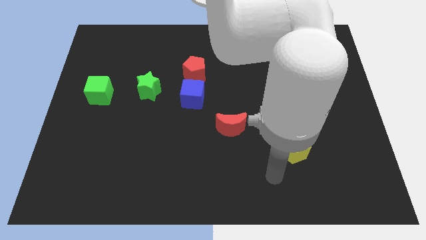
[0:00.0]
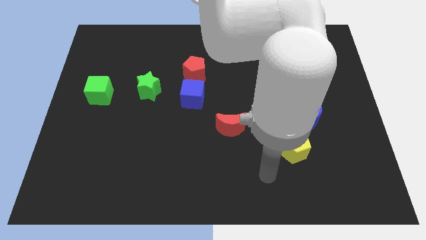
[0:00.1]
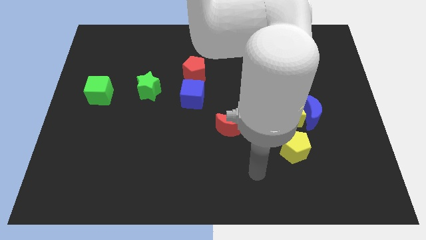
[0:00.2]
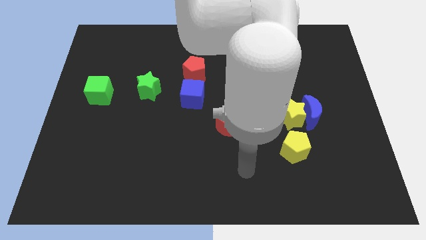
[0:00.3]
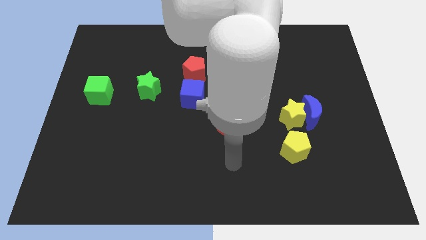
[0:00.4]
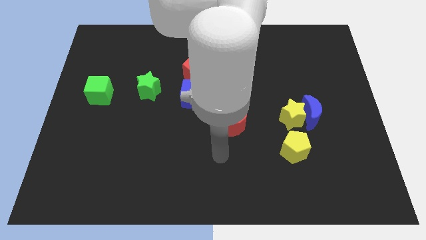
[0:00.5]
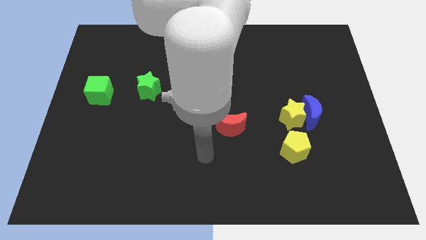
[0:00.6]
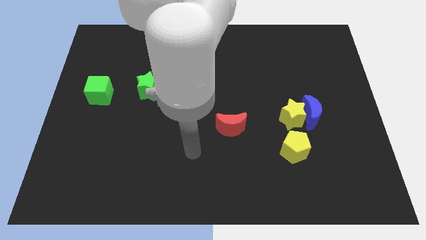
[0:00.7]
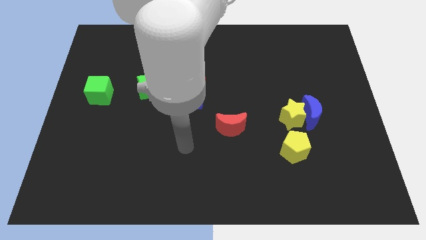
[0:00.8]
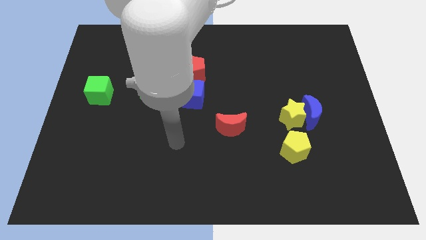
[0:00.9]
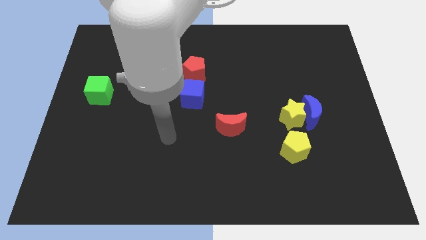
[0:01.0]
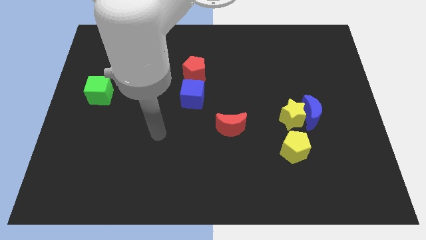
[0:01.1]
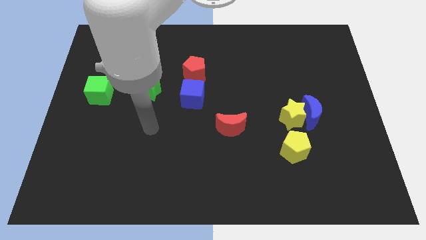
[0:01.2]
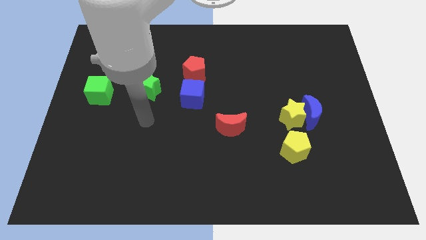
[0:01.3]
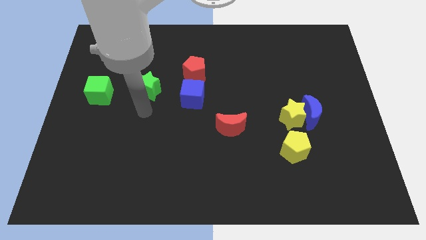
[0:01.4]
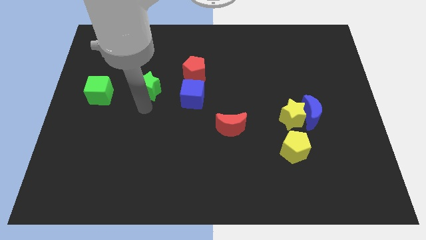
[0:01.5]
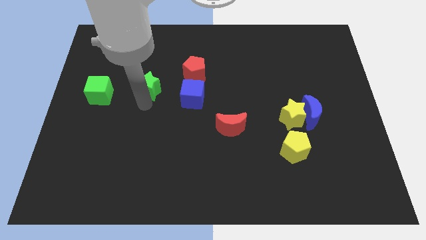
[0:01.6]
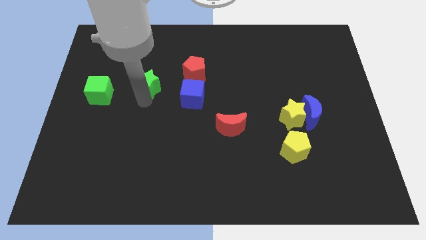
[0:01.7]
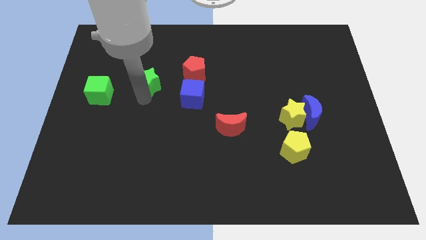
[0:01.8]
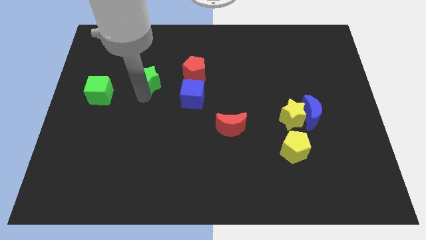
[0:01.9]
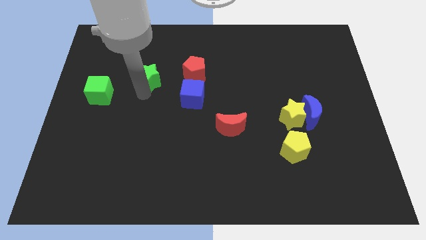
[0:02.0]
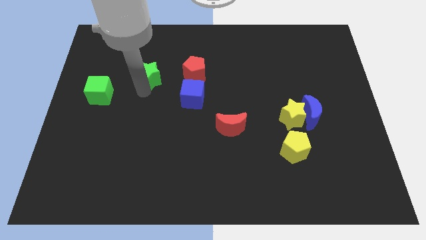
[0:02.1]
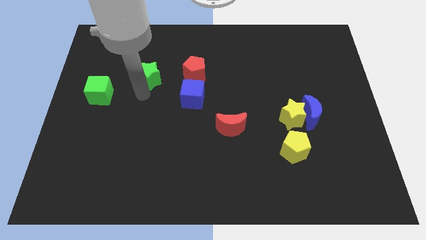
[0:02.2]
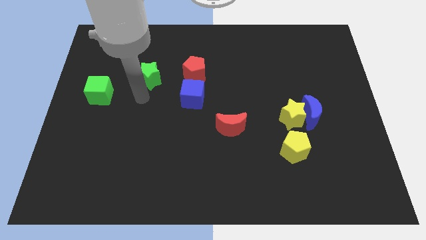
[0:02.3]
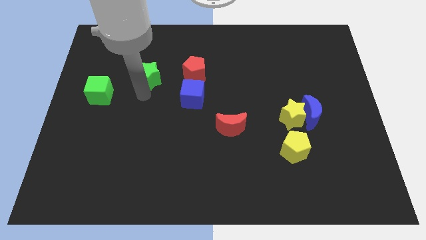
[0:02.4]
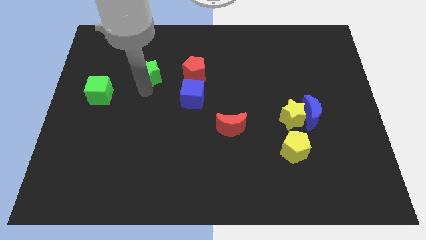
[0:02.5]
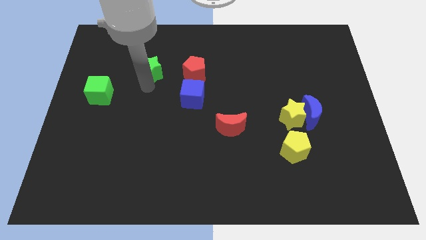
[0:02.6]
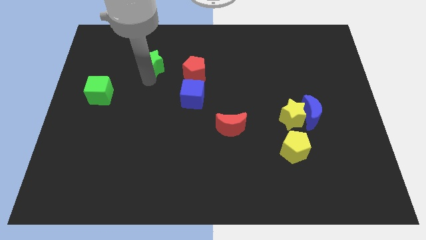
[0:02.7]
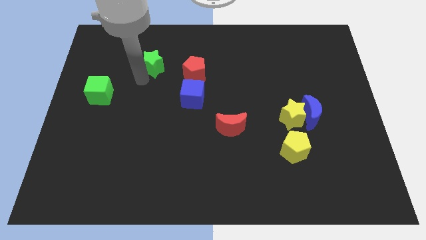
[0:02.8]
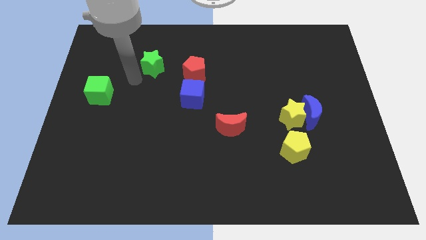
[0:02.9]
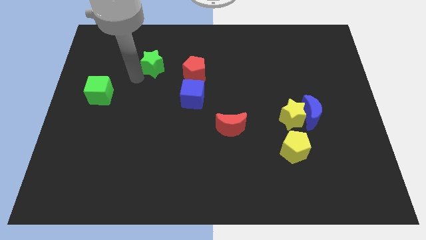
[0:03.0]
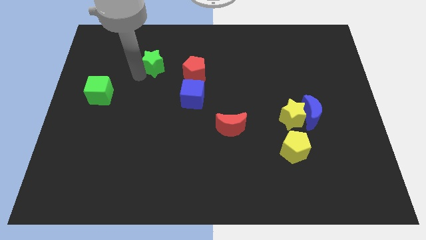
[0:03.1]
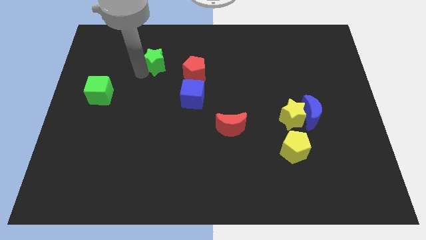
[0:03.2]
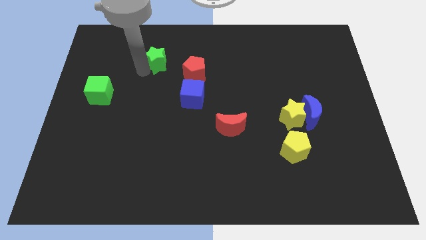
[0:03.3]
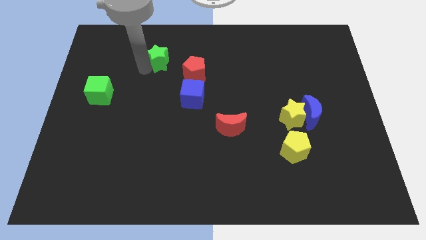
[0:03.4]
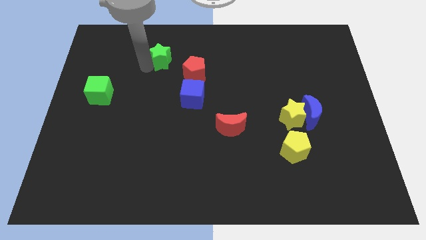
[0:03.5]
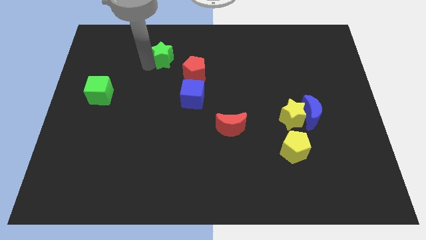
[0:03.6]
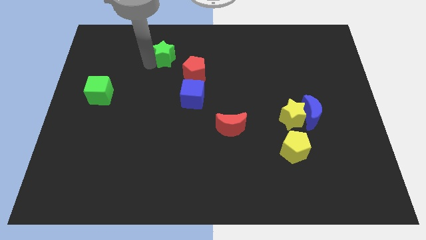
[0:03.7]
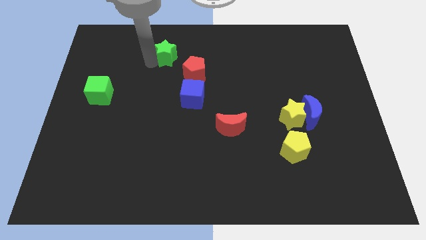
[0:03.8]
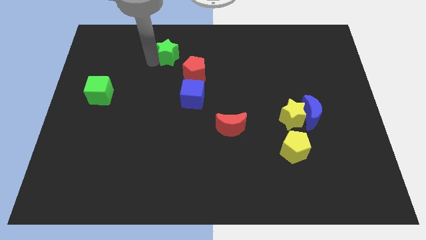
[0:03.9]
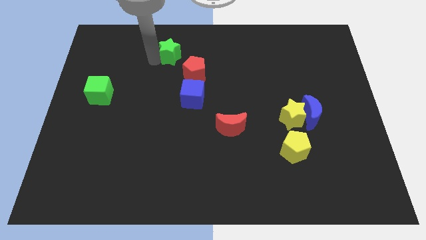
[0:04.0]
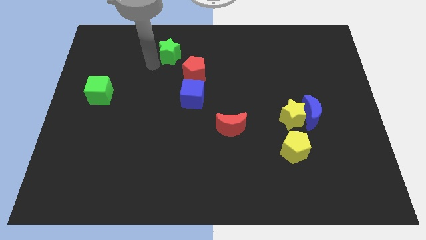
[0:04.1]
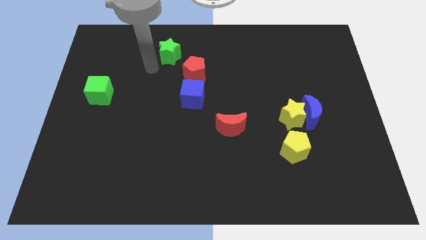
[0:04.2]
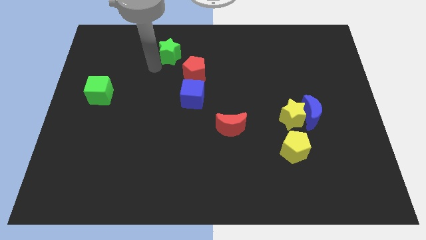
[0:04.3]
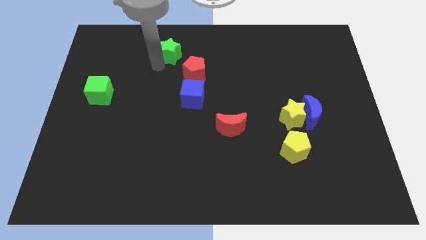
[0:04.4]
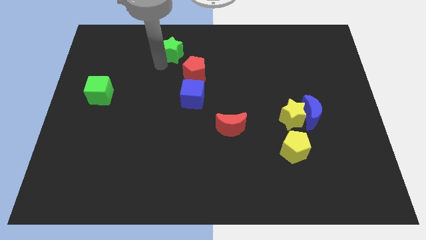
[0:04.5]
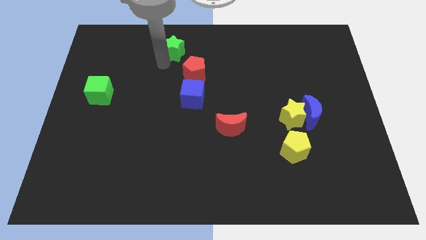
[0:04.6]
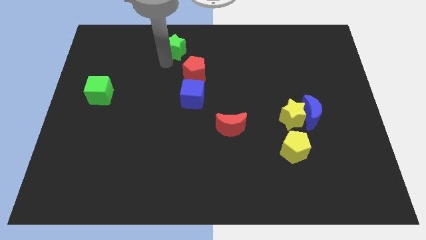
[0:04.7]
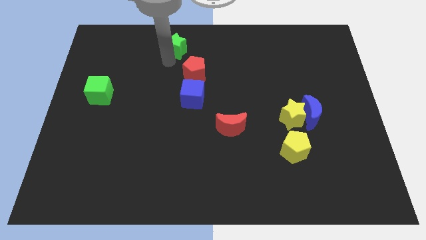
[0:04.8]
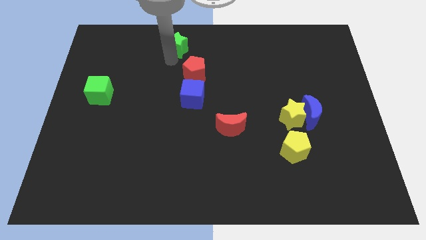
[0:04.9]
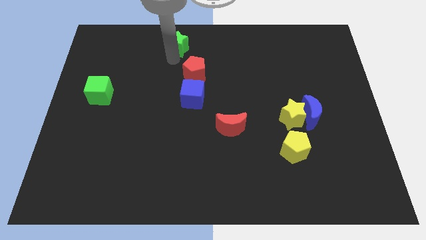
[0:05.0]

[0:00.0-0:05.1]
push the green star to the towards your base

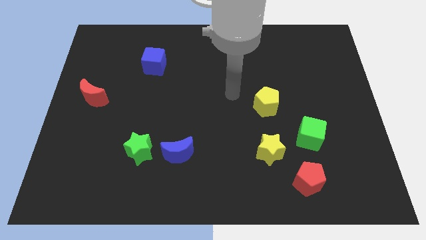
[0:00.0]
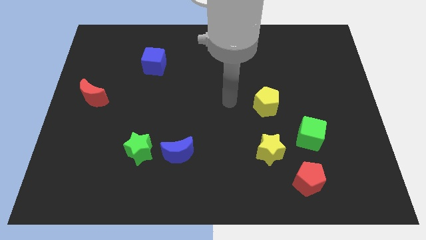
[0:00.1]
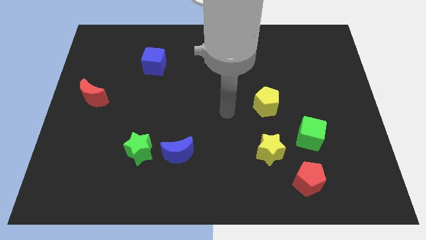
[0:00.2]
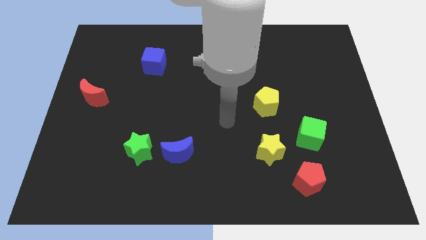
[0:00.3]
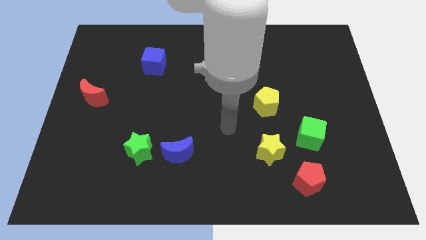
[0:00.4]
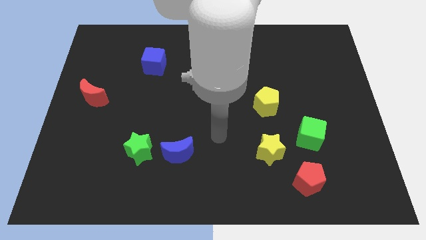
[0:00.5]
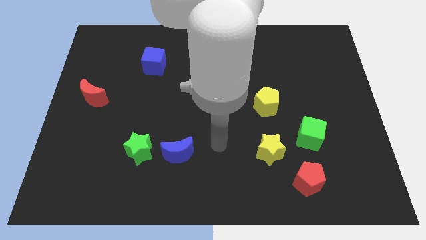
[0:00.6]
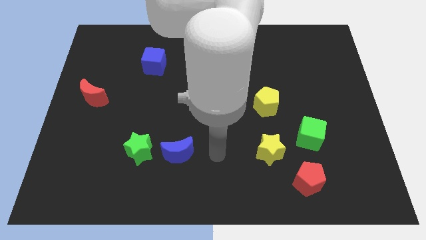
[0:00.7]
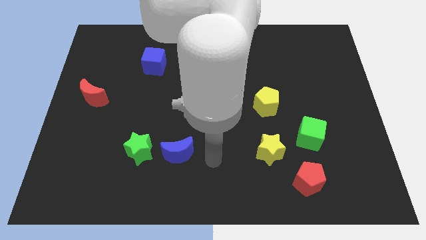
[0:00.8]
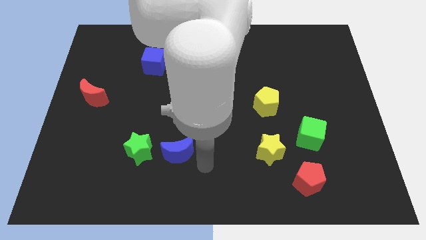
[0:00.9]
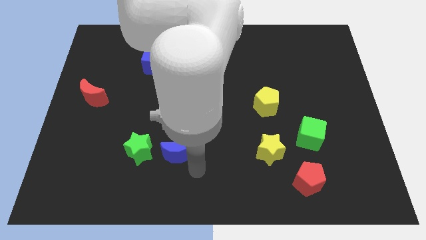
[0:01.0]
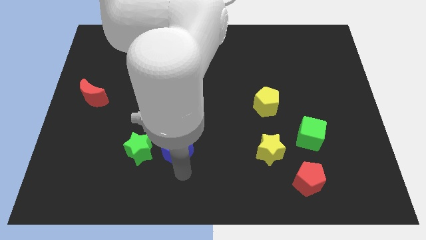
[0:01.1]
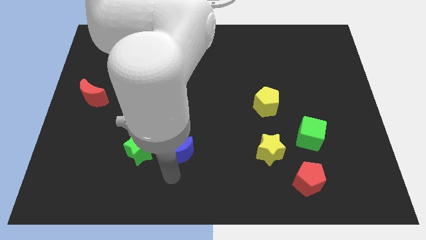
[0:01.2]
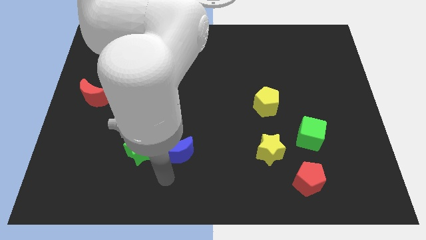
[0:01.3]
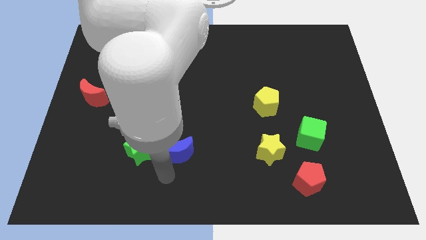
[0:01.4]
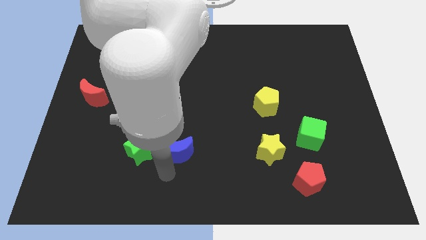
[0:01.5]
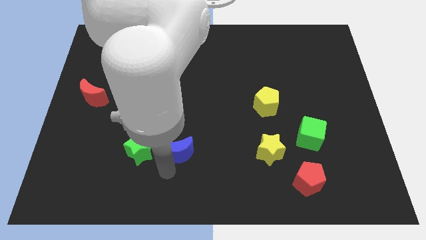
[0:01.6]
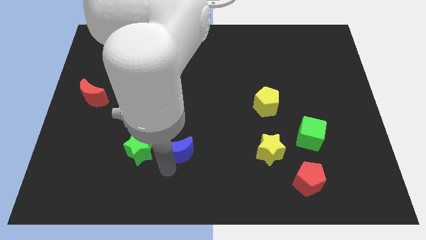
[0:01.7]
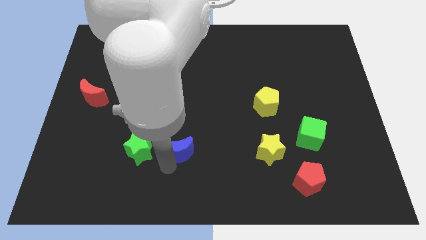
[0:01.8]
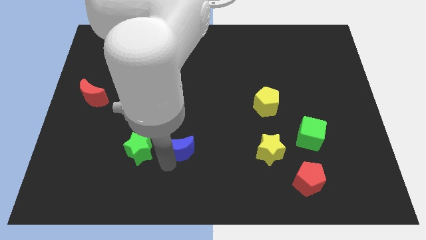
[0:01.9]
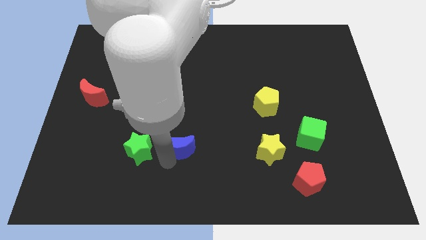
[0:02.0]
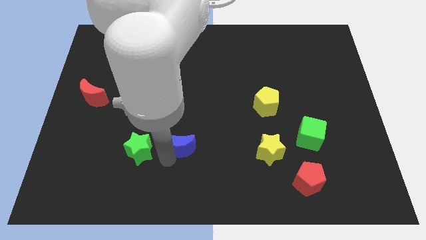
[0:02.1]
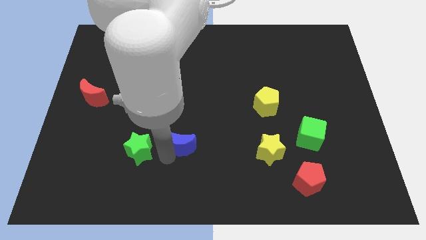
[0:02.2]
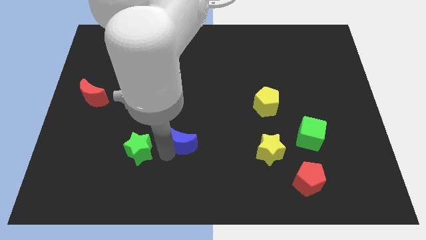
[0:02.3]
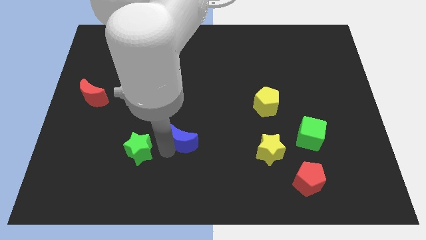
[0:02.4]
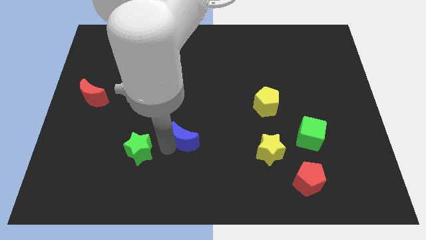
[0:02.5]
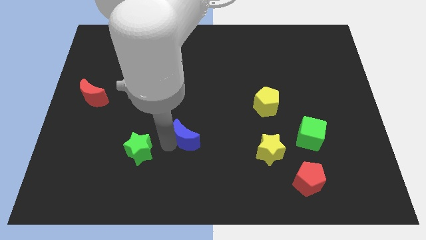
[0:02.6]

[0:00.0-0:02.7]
move the blue moon to the center of the board

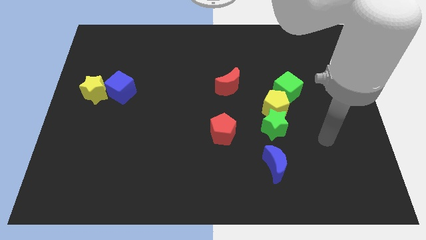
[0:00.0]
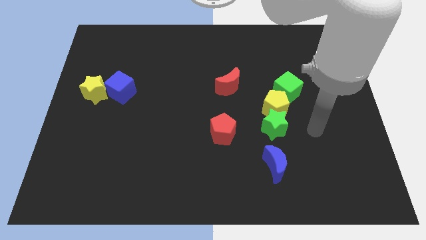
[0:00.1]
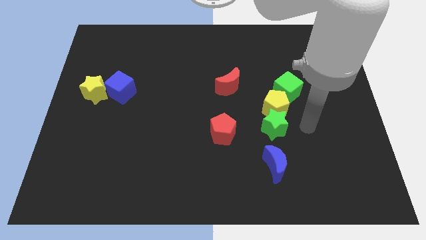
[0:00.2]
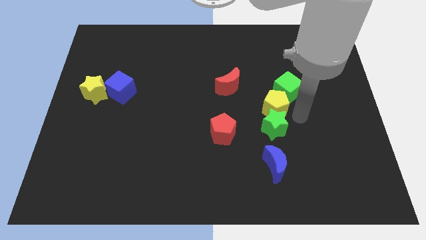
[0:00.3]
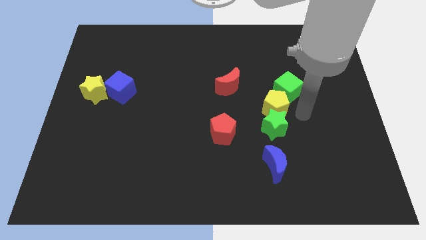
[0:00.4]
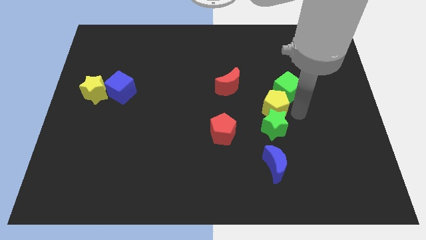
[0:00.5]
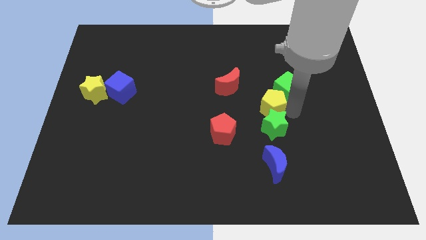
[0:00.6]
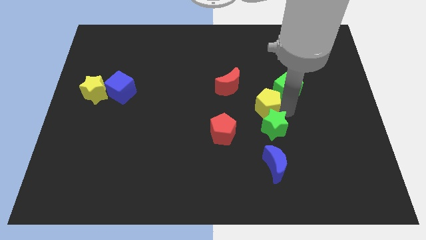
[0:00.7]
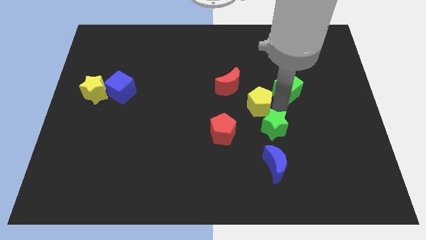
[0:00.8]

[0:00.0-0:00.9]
push the yellow pentagon to the middle
